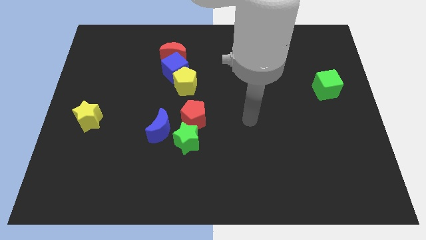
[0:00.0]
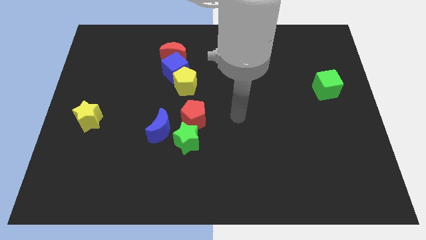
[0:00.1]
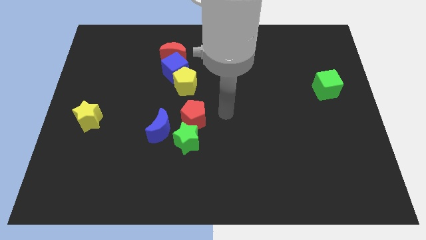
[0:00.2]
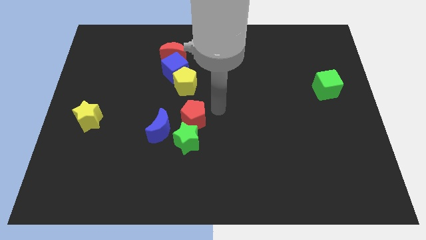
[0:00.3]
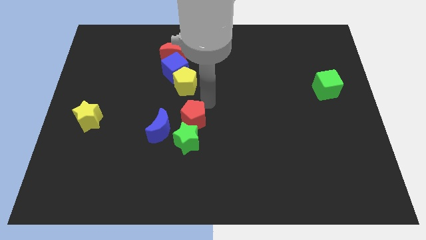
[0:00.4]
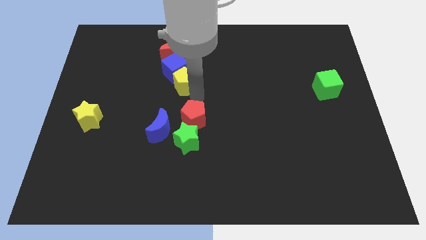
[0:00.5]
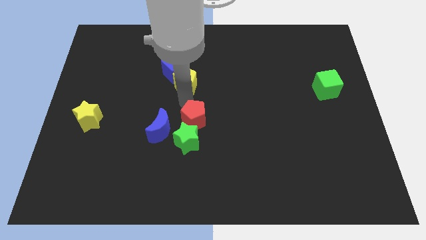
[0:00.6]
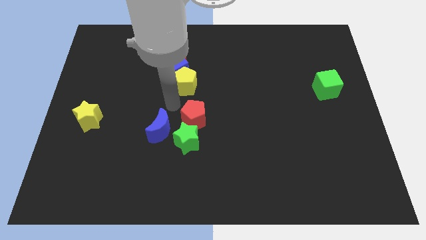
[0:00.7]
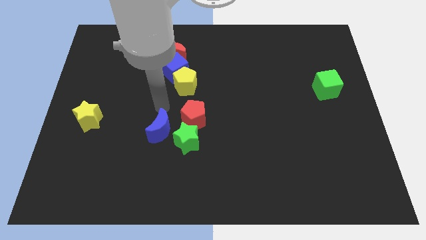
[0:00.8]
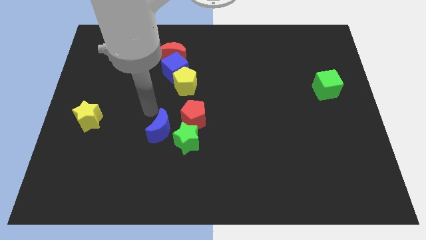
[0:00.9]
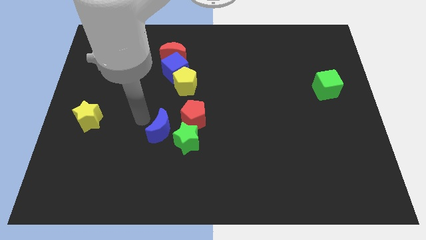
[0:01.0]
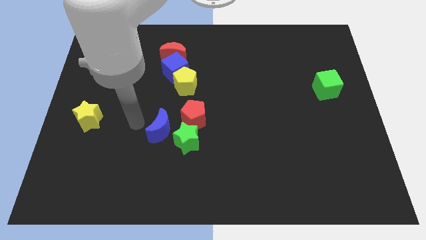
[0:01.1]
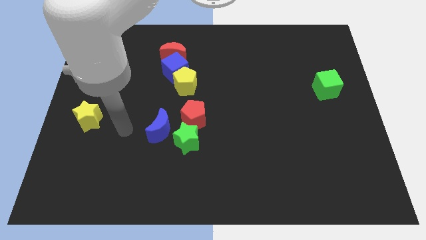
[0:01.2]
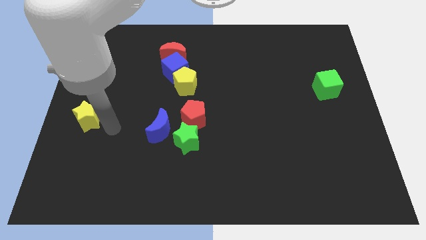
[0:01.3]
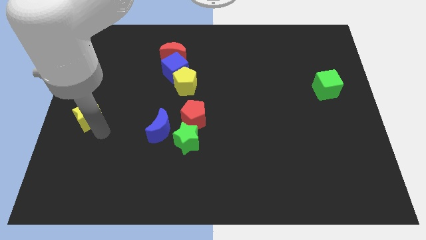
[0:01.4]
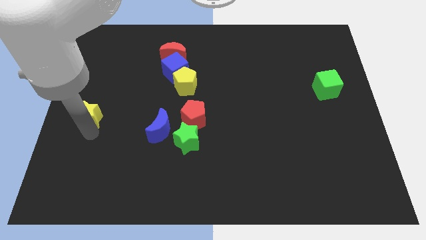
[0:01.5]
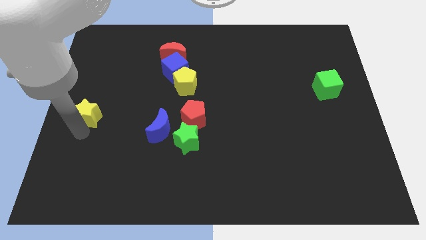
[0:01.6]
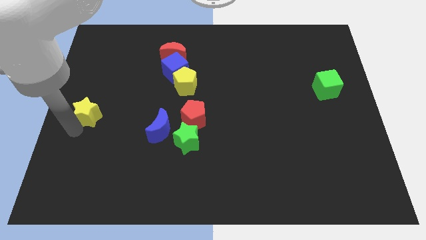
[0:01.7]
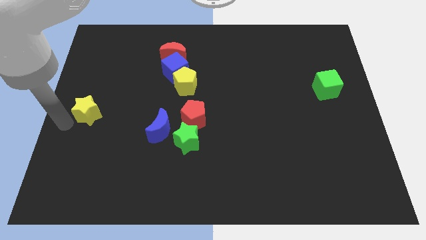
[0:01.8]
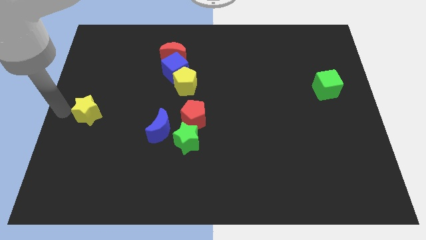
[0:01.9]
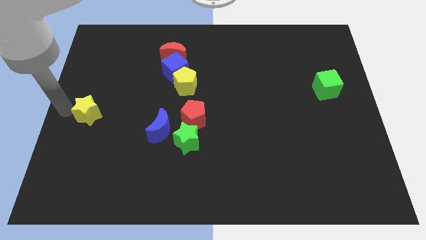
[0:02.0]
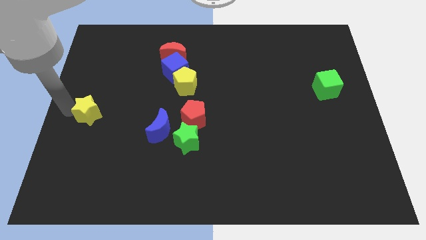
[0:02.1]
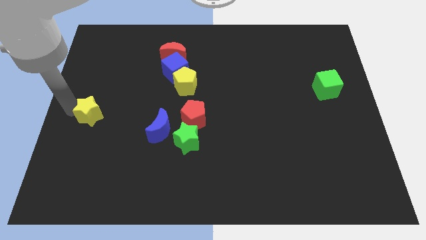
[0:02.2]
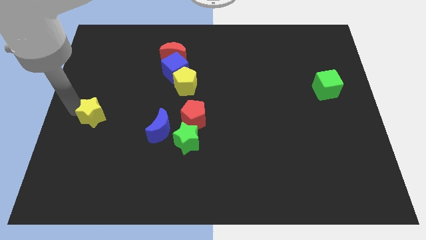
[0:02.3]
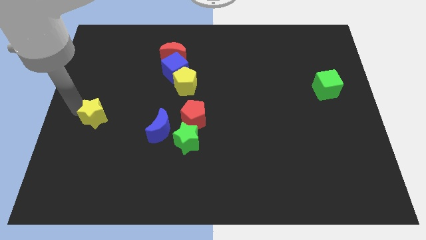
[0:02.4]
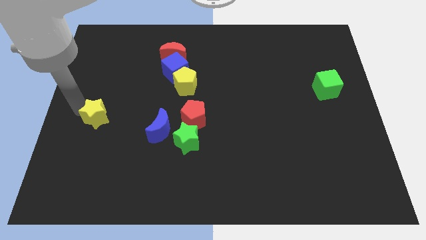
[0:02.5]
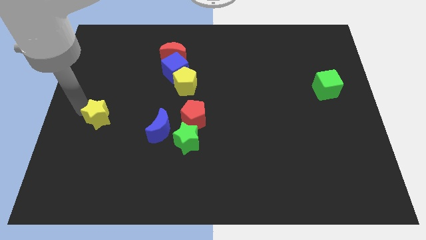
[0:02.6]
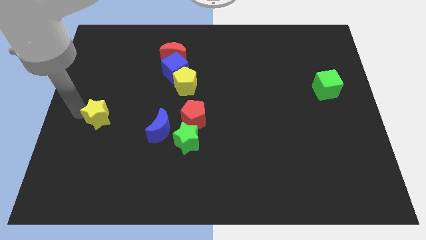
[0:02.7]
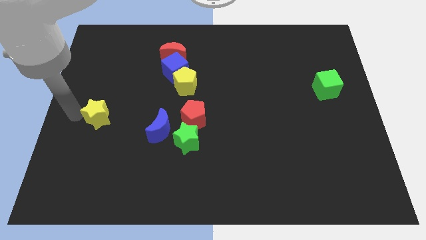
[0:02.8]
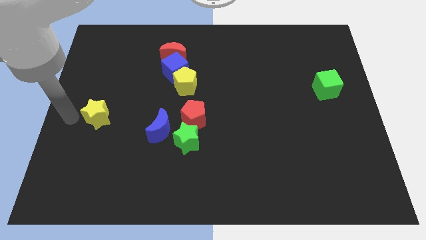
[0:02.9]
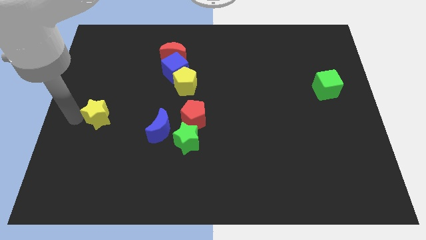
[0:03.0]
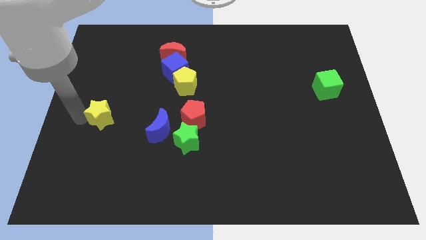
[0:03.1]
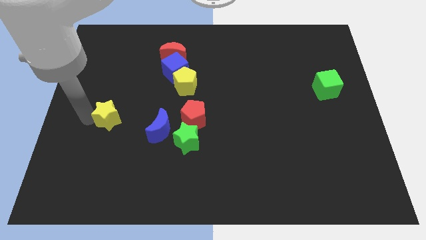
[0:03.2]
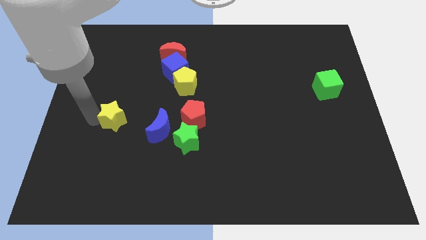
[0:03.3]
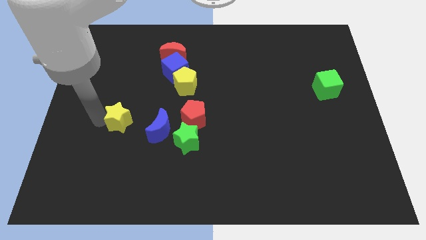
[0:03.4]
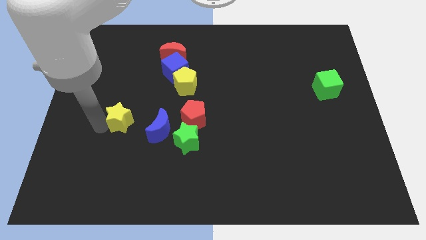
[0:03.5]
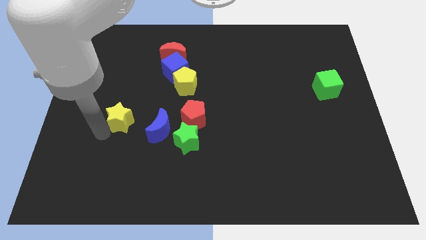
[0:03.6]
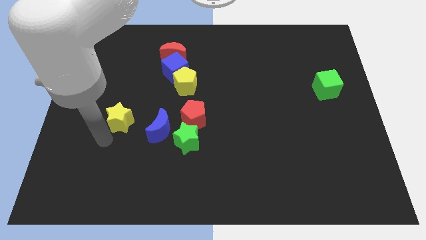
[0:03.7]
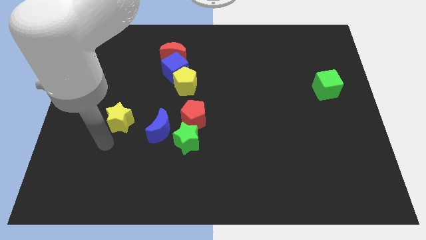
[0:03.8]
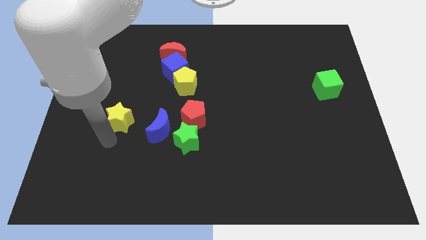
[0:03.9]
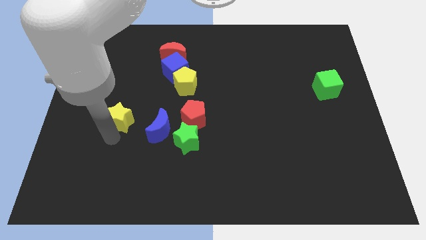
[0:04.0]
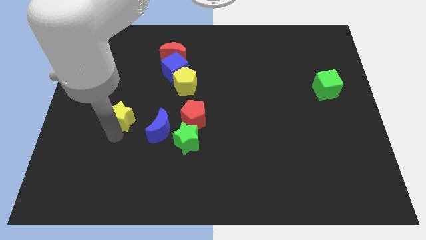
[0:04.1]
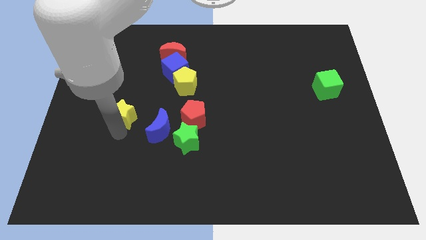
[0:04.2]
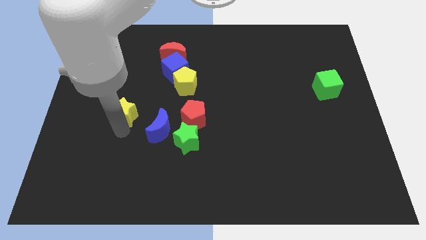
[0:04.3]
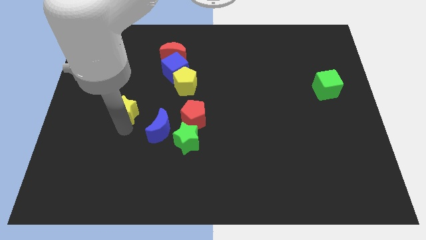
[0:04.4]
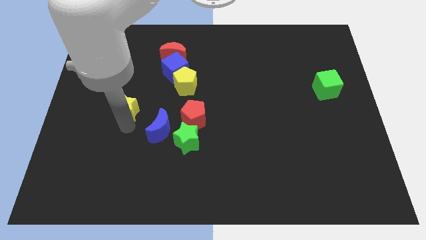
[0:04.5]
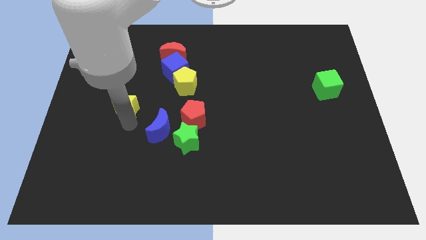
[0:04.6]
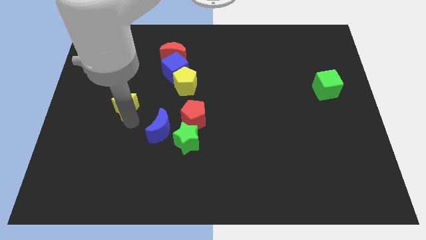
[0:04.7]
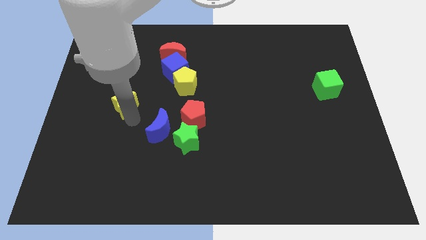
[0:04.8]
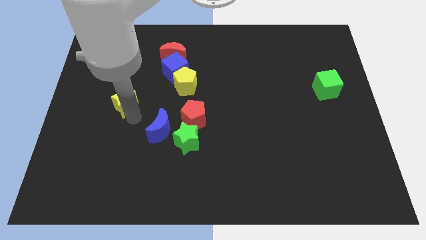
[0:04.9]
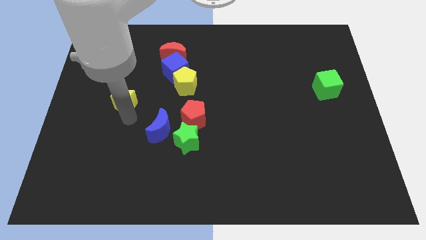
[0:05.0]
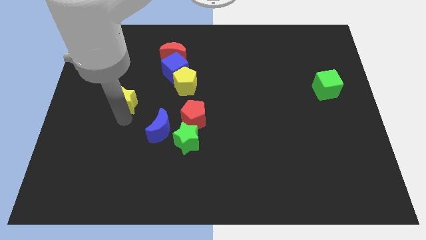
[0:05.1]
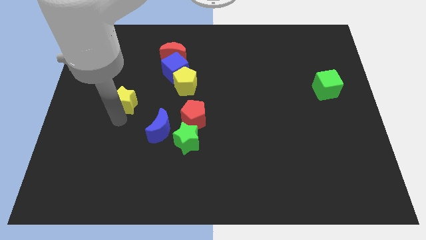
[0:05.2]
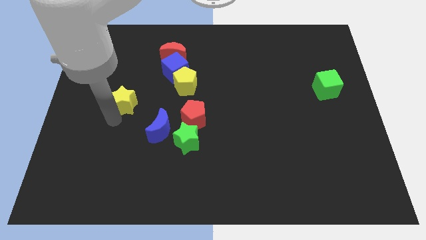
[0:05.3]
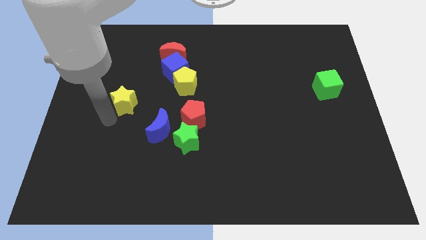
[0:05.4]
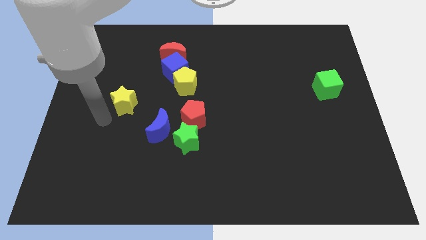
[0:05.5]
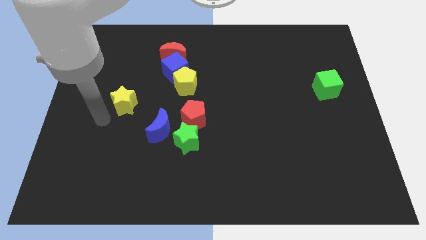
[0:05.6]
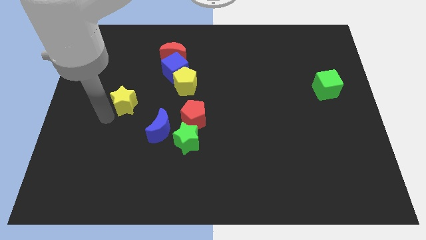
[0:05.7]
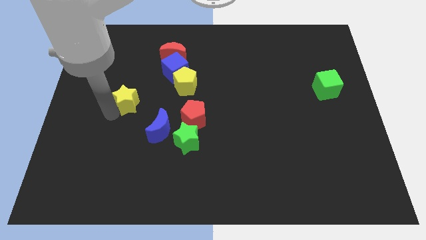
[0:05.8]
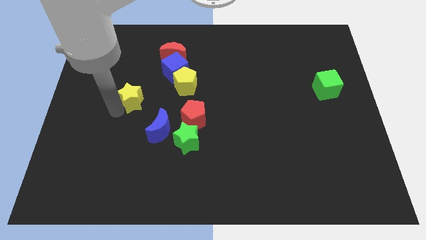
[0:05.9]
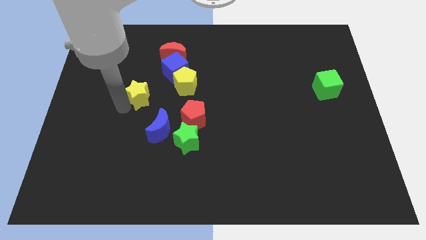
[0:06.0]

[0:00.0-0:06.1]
push the yellow star to the bottom left side of the blue cube

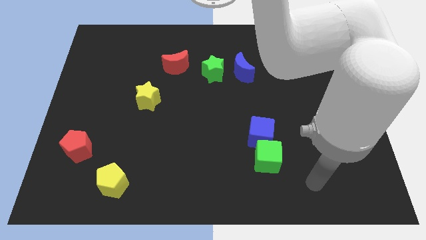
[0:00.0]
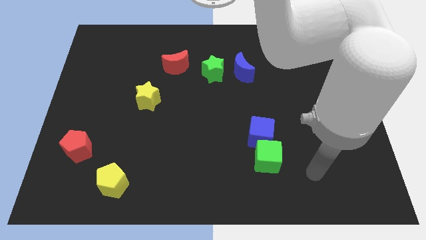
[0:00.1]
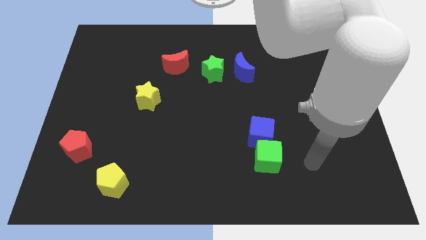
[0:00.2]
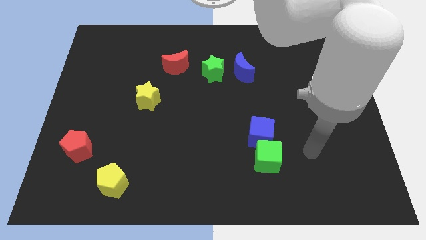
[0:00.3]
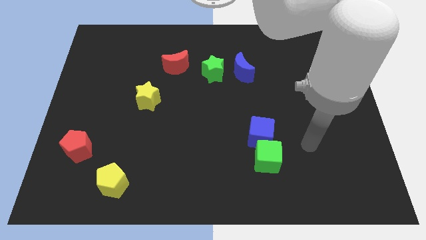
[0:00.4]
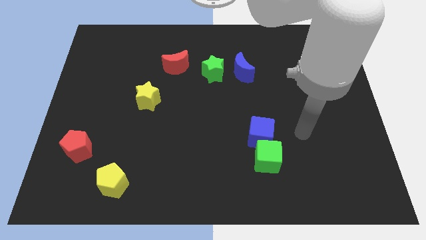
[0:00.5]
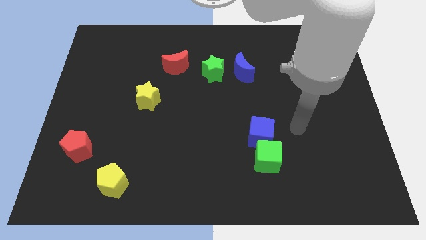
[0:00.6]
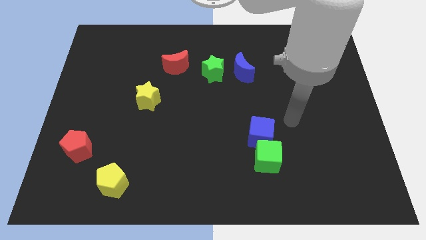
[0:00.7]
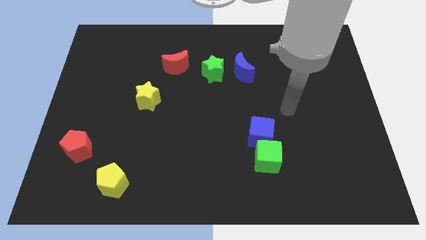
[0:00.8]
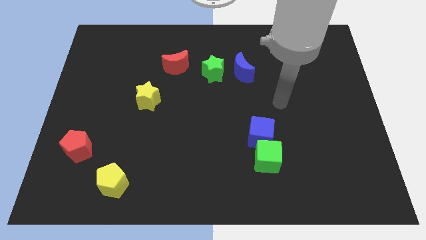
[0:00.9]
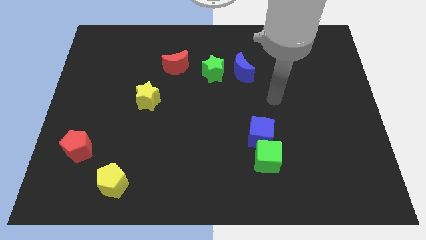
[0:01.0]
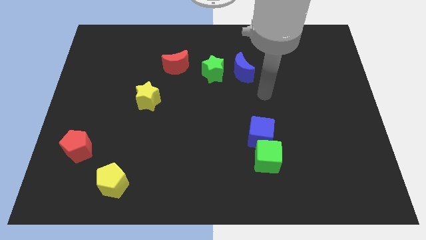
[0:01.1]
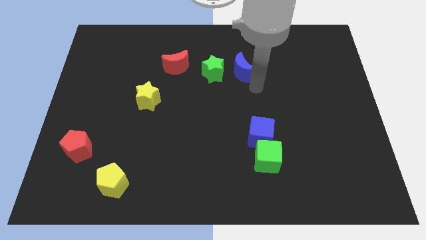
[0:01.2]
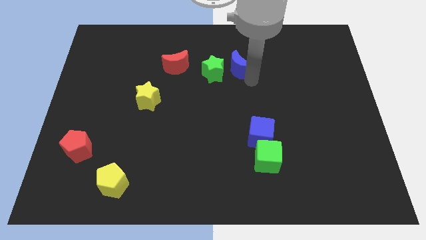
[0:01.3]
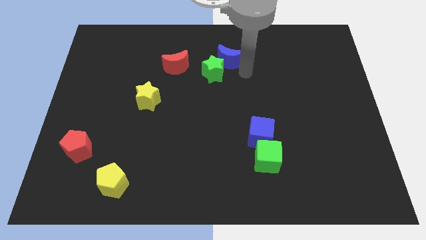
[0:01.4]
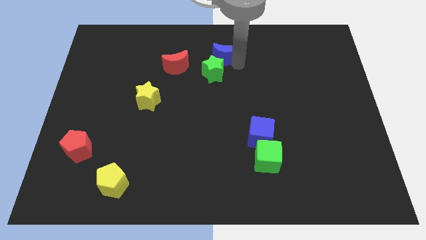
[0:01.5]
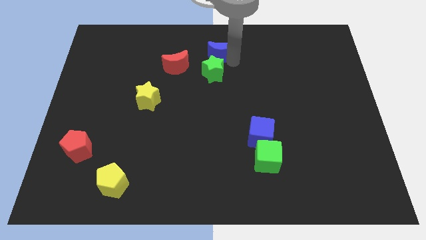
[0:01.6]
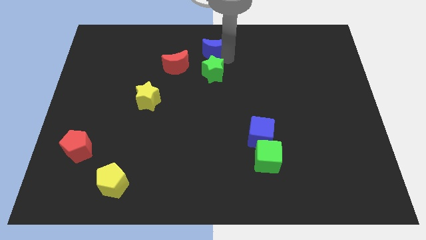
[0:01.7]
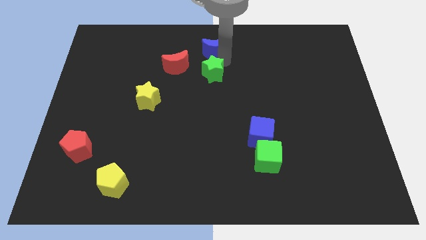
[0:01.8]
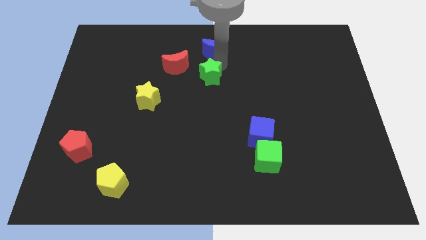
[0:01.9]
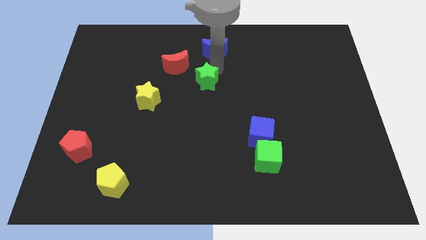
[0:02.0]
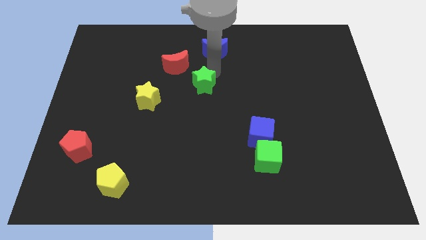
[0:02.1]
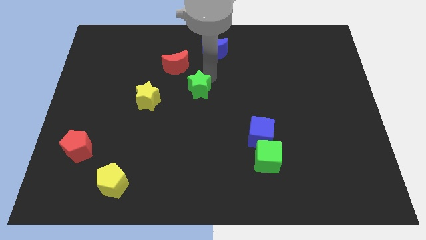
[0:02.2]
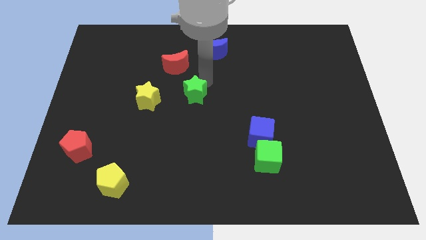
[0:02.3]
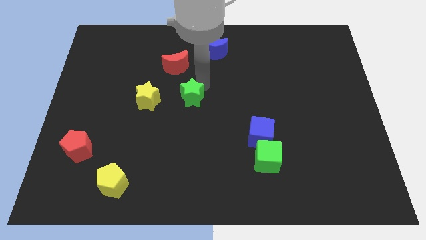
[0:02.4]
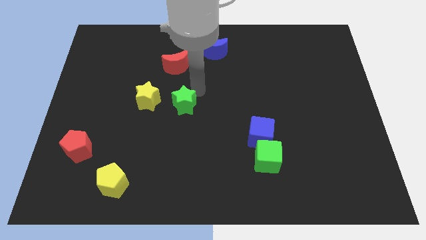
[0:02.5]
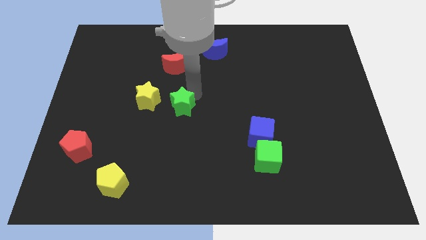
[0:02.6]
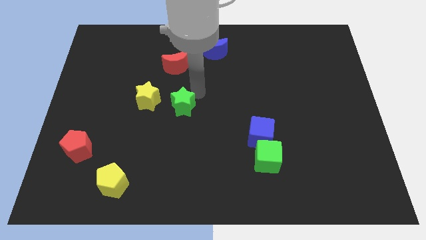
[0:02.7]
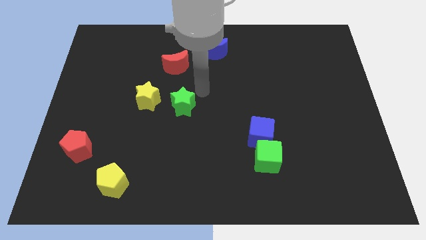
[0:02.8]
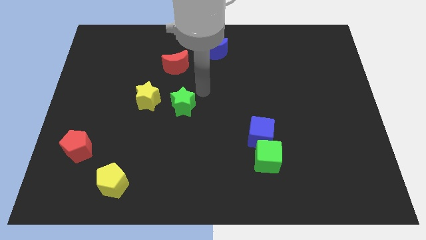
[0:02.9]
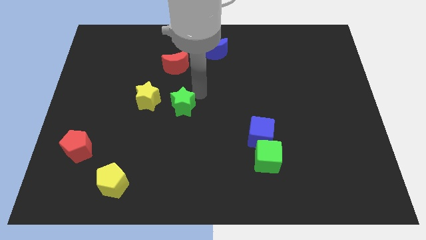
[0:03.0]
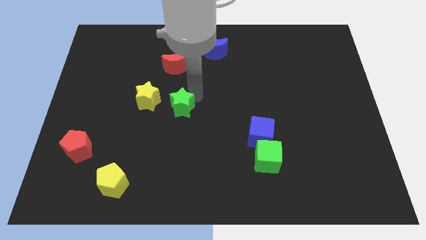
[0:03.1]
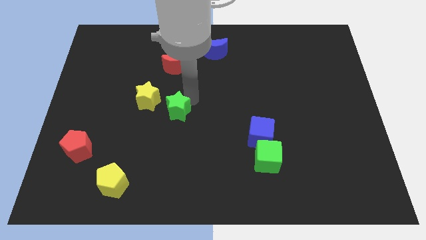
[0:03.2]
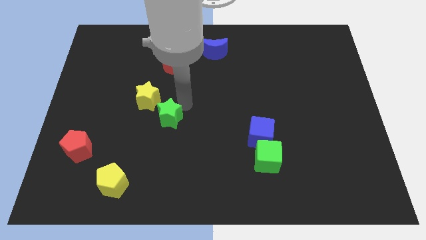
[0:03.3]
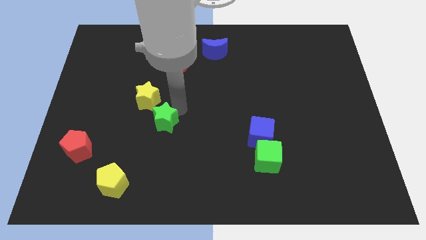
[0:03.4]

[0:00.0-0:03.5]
slide the green star below the yellow star
